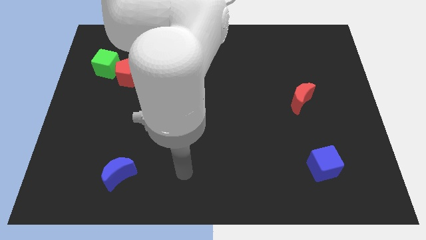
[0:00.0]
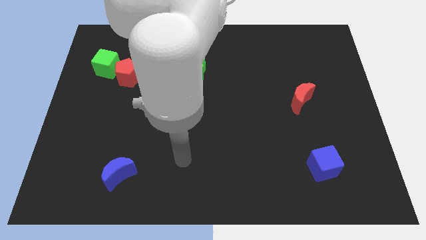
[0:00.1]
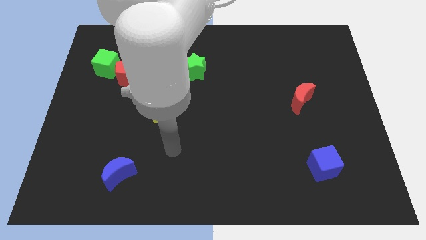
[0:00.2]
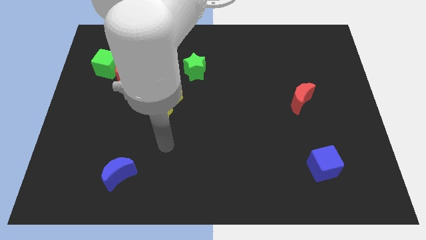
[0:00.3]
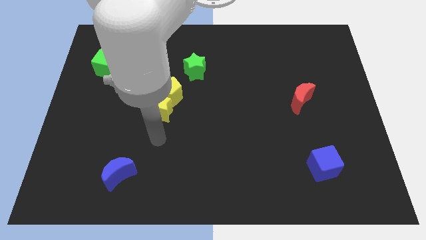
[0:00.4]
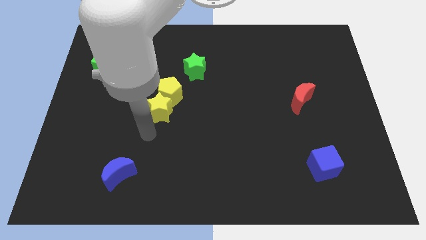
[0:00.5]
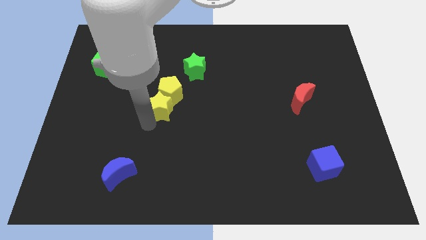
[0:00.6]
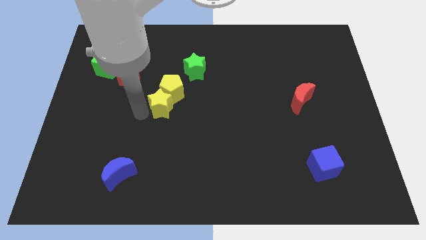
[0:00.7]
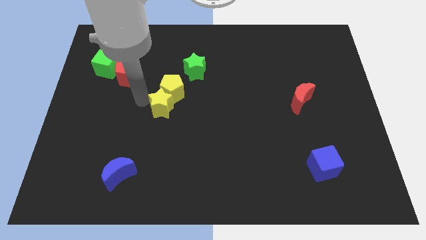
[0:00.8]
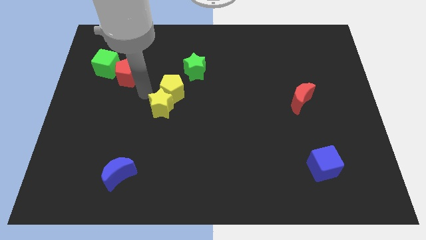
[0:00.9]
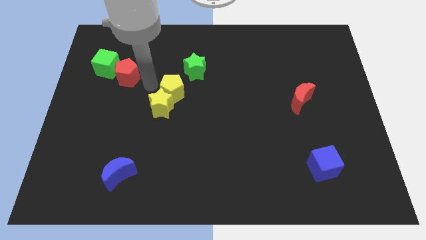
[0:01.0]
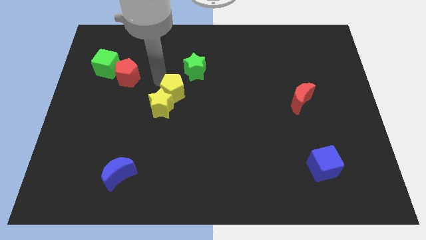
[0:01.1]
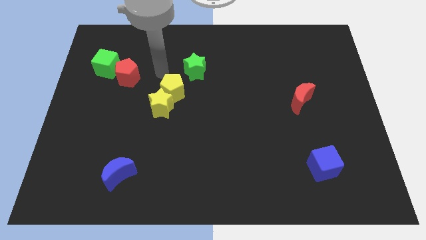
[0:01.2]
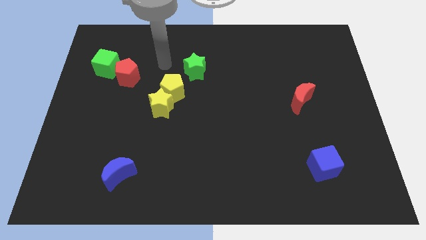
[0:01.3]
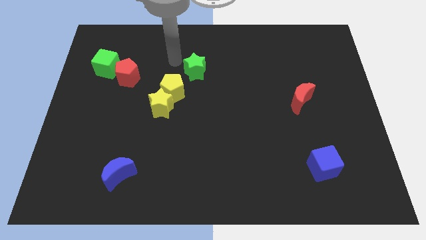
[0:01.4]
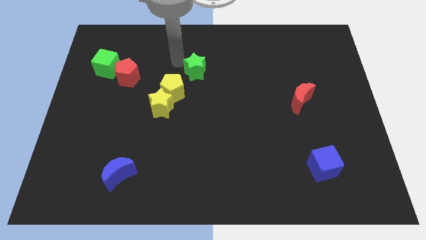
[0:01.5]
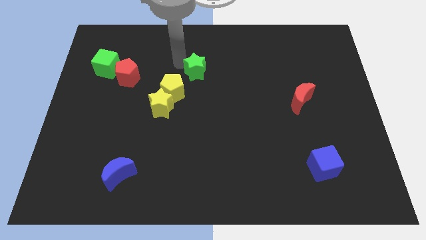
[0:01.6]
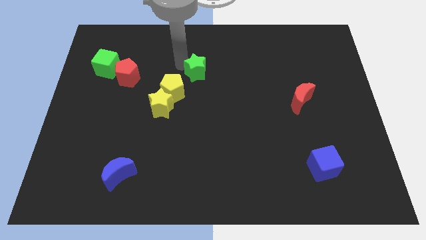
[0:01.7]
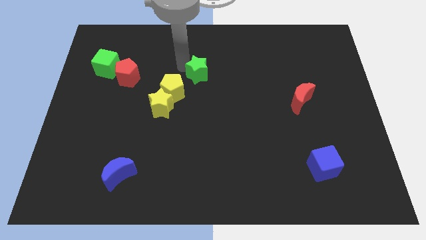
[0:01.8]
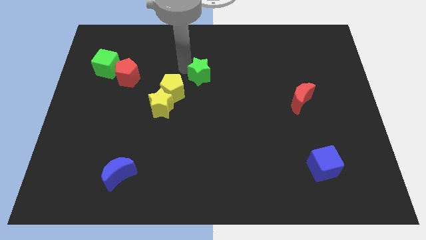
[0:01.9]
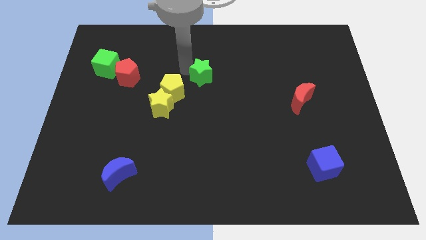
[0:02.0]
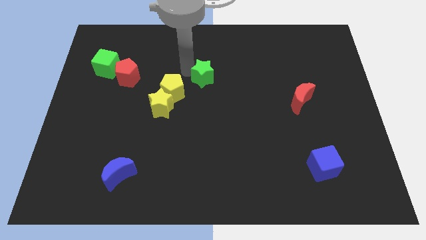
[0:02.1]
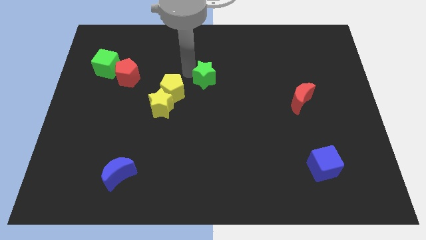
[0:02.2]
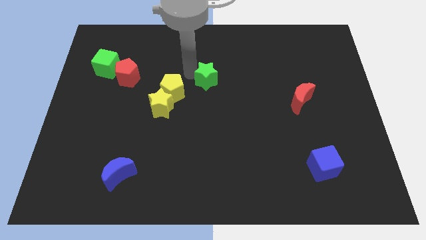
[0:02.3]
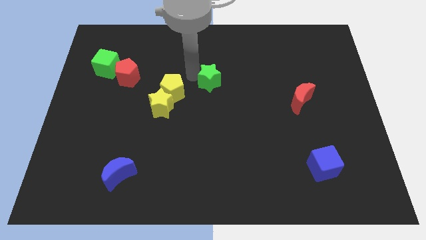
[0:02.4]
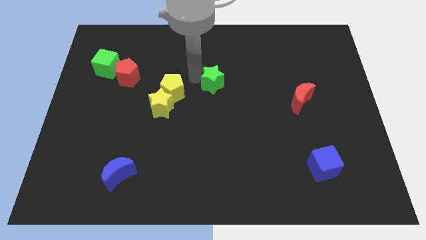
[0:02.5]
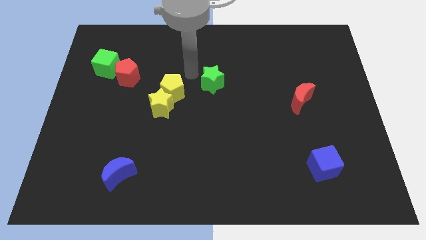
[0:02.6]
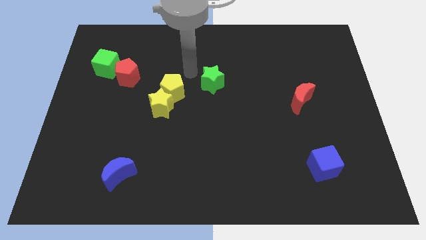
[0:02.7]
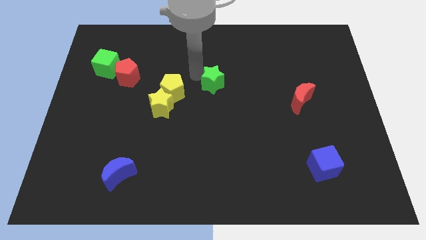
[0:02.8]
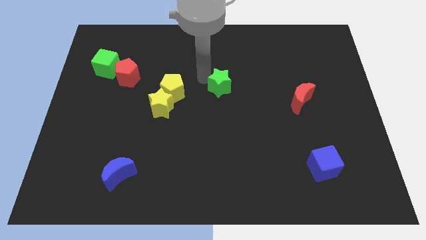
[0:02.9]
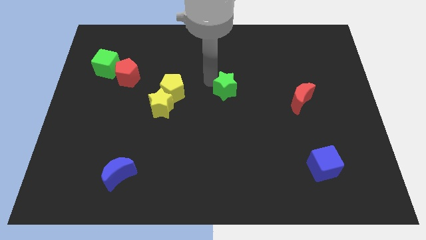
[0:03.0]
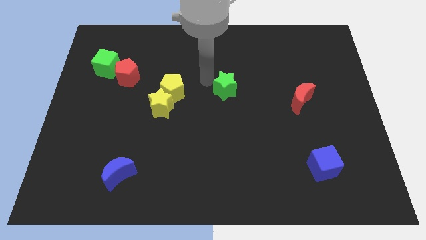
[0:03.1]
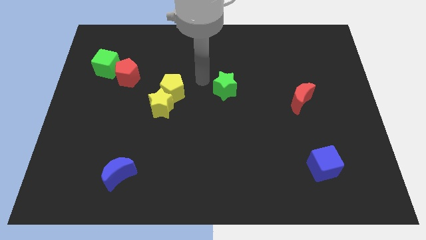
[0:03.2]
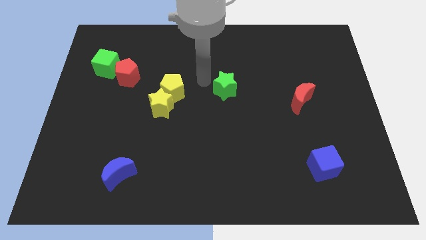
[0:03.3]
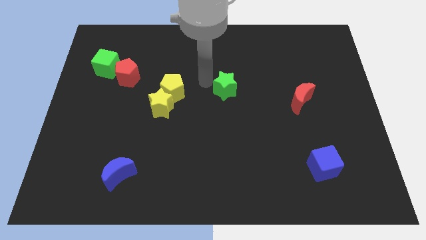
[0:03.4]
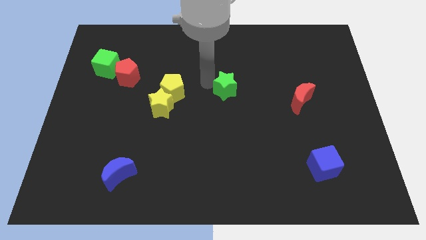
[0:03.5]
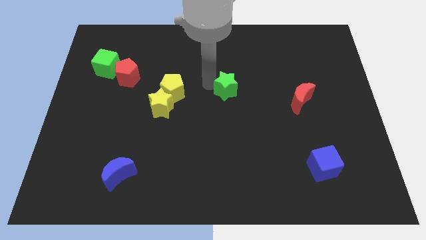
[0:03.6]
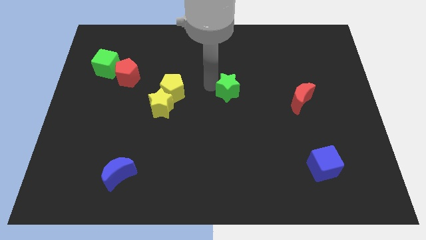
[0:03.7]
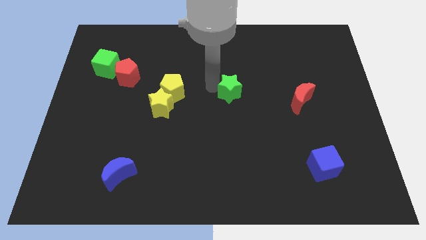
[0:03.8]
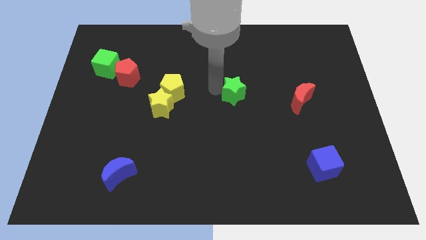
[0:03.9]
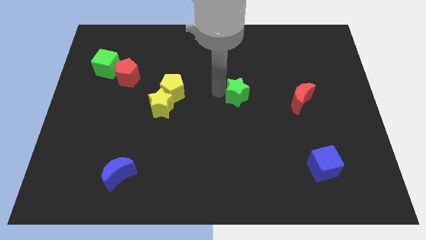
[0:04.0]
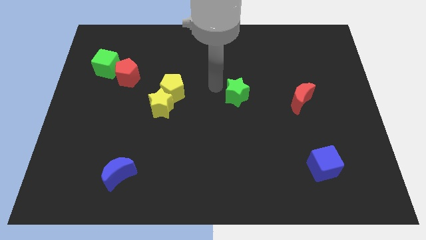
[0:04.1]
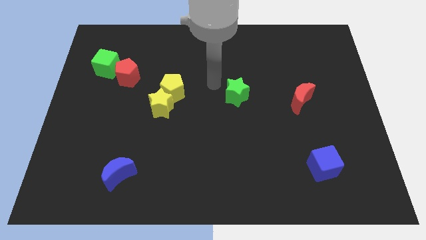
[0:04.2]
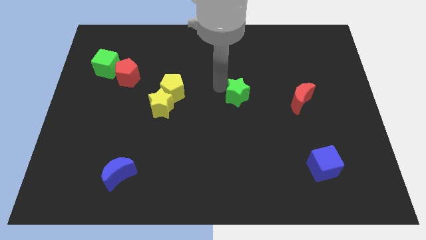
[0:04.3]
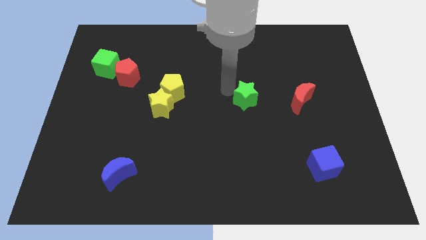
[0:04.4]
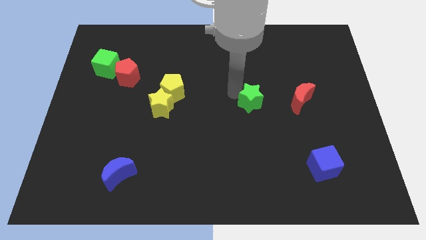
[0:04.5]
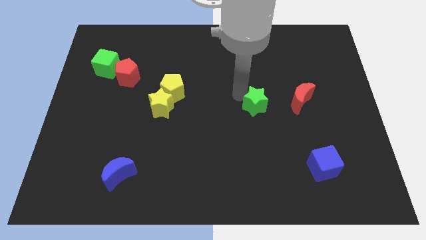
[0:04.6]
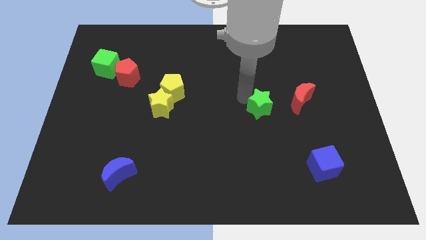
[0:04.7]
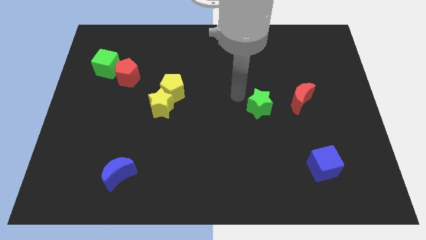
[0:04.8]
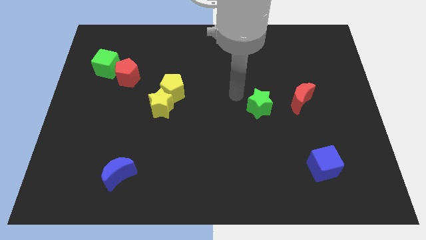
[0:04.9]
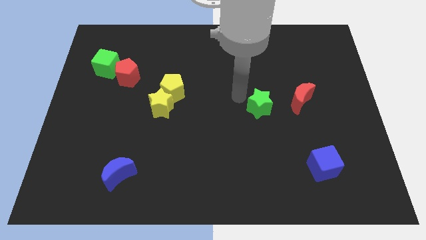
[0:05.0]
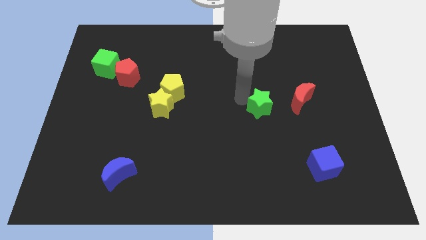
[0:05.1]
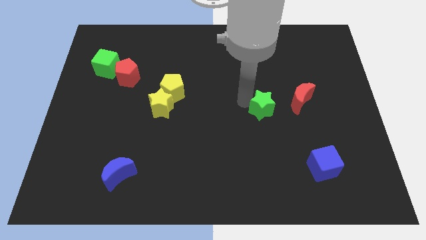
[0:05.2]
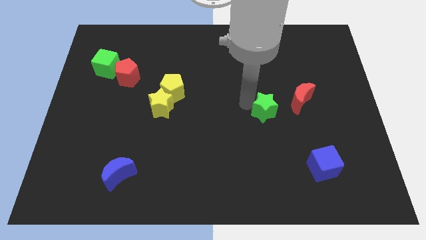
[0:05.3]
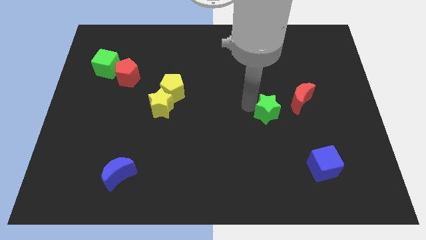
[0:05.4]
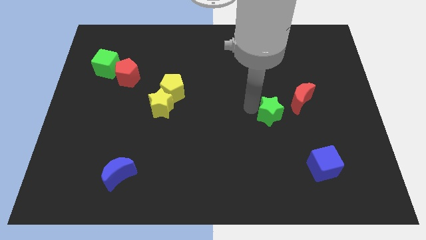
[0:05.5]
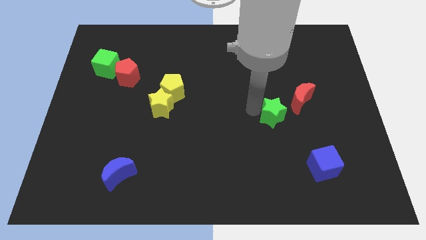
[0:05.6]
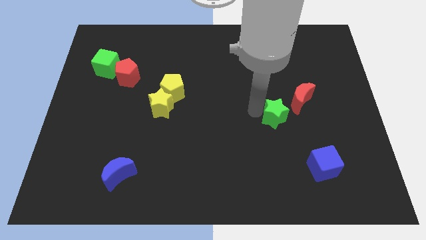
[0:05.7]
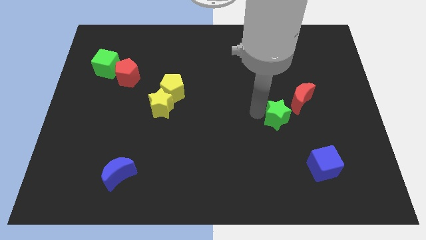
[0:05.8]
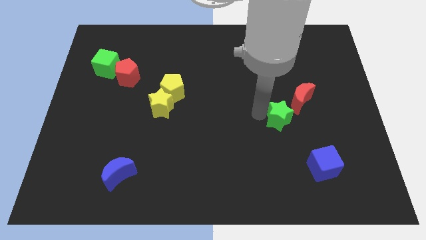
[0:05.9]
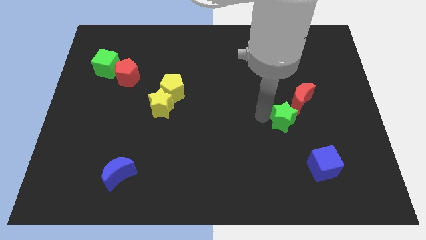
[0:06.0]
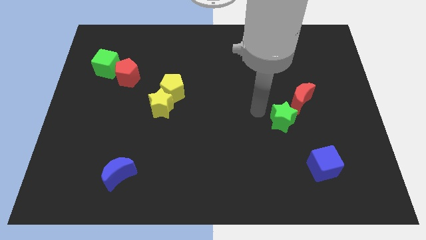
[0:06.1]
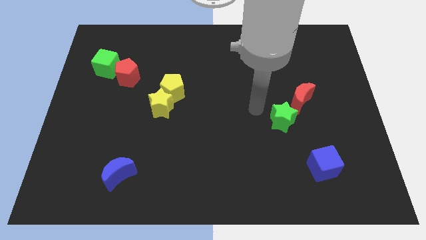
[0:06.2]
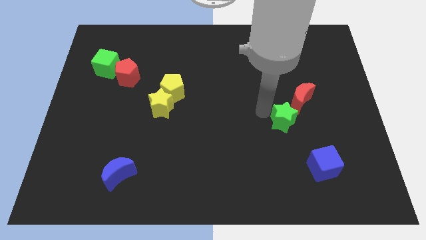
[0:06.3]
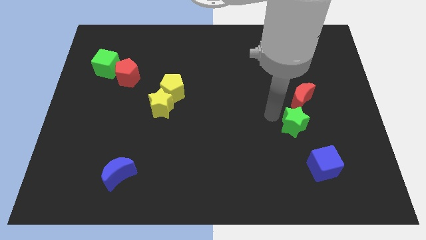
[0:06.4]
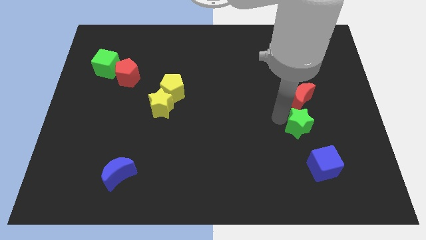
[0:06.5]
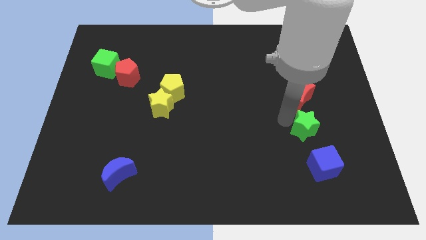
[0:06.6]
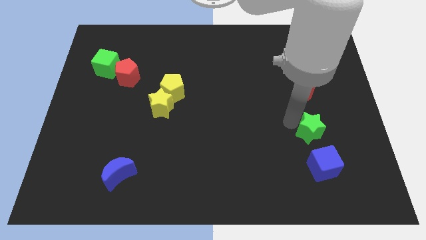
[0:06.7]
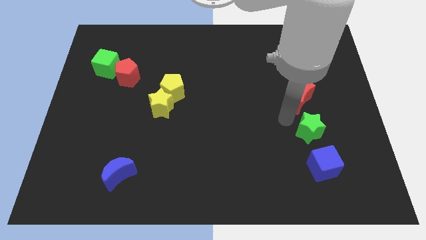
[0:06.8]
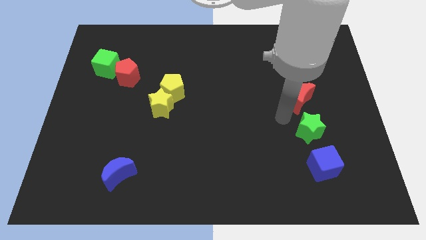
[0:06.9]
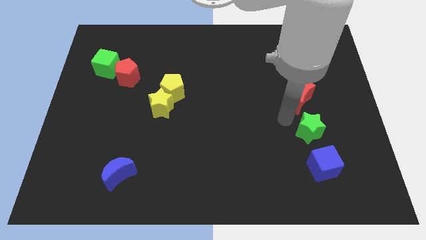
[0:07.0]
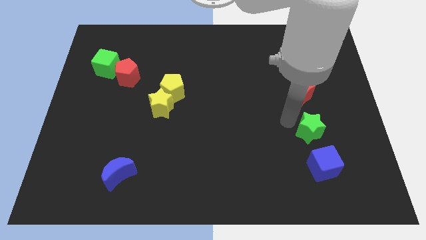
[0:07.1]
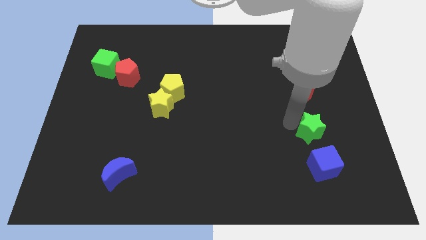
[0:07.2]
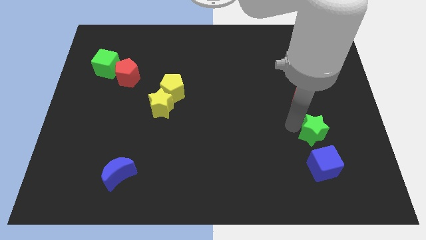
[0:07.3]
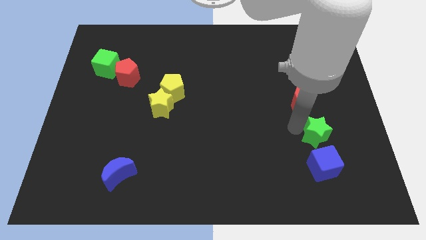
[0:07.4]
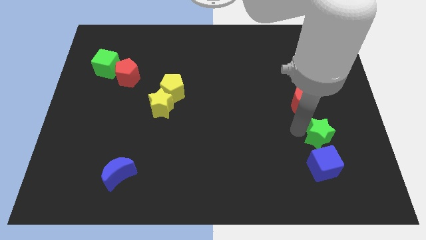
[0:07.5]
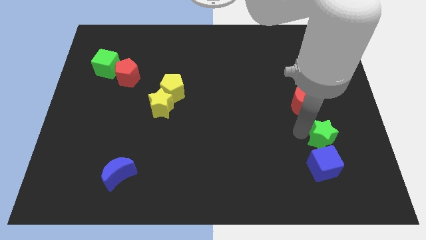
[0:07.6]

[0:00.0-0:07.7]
put the green star diagonally up and to the right of the blue cube
